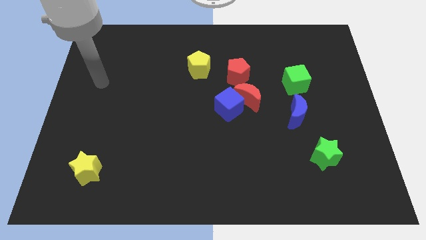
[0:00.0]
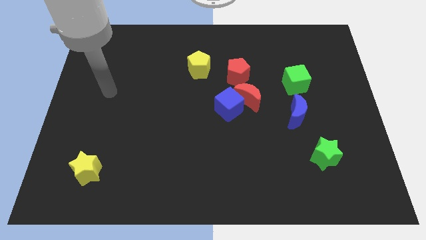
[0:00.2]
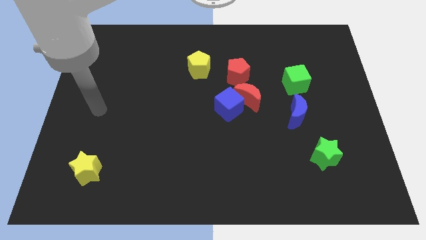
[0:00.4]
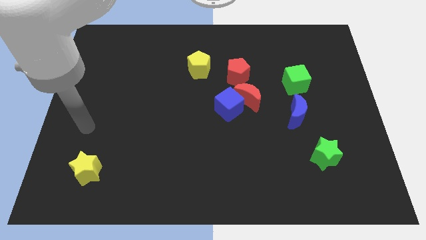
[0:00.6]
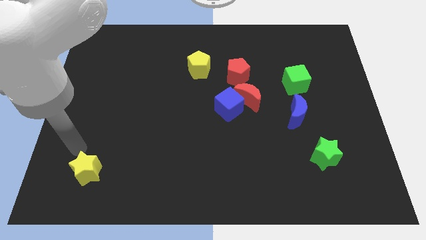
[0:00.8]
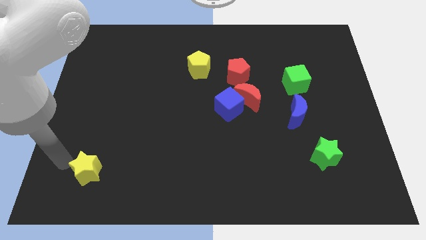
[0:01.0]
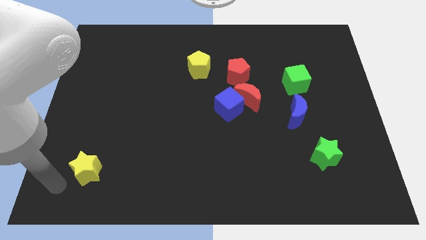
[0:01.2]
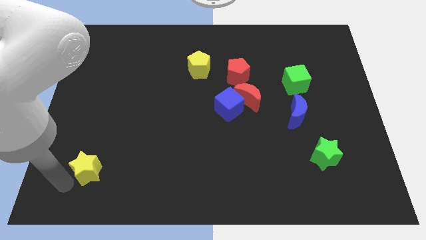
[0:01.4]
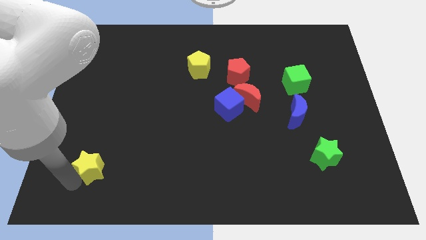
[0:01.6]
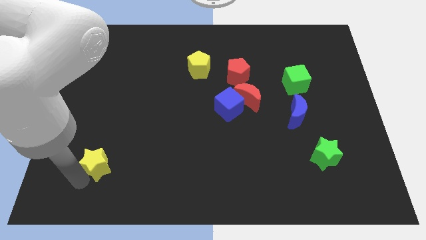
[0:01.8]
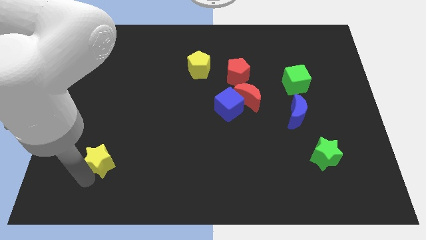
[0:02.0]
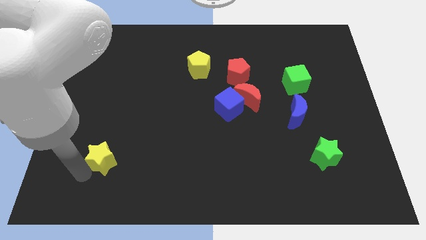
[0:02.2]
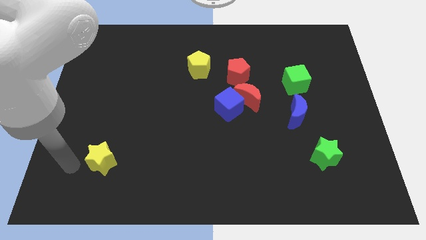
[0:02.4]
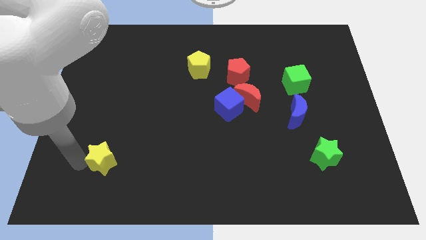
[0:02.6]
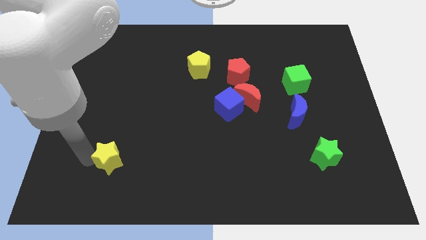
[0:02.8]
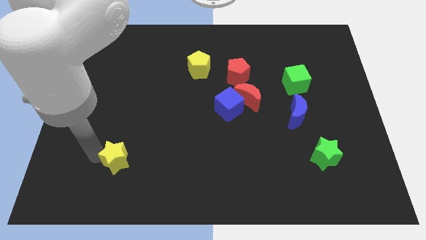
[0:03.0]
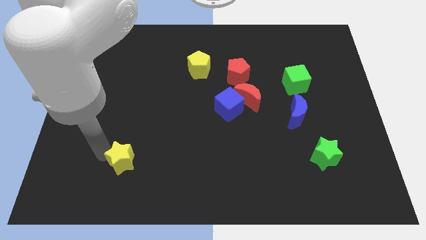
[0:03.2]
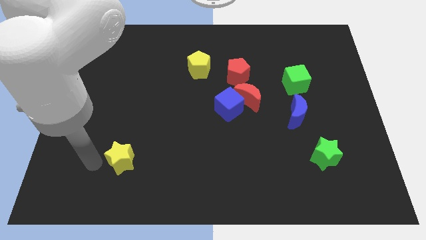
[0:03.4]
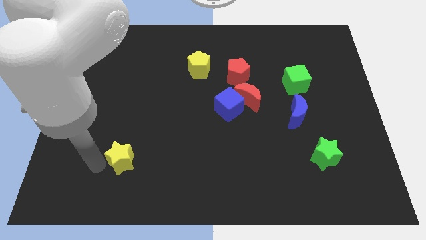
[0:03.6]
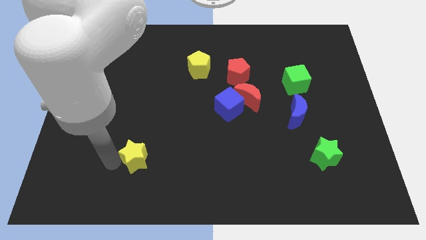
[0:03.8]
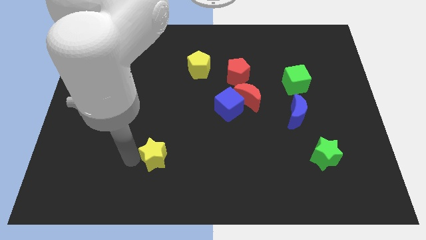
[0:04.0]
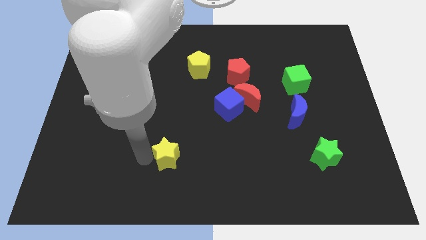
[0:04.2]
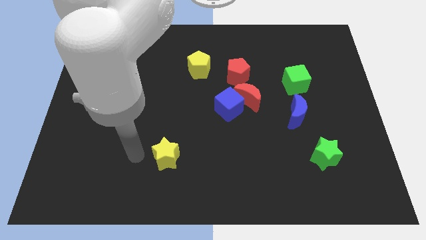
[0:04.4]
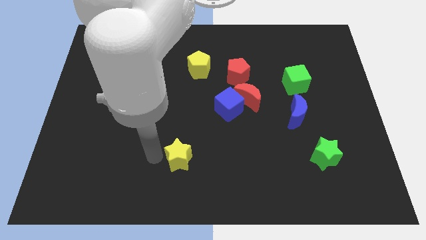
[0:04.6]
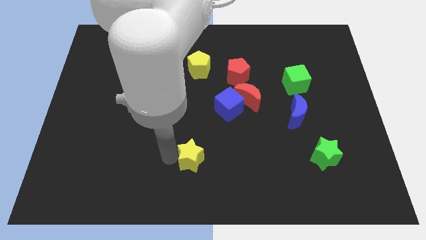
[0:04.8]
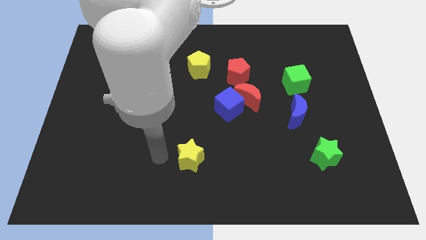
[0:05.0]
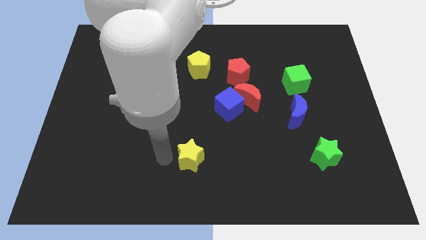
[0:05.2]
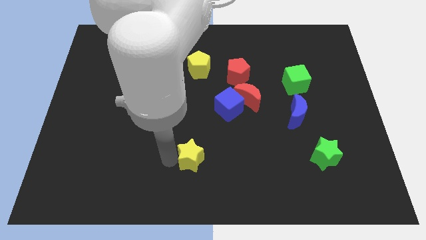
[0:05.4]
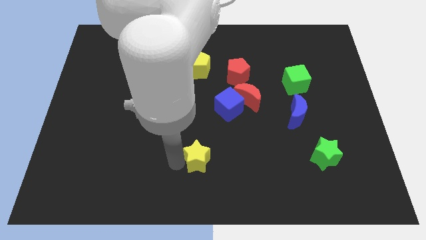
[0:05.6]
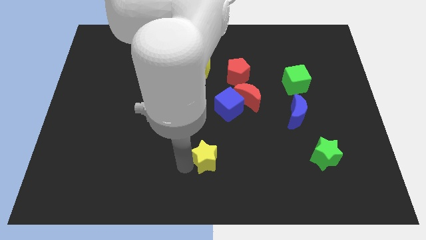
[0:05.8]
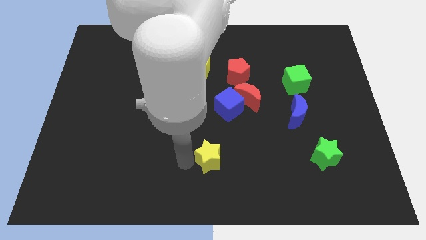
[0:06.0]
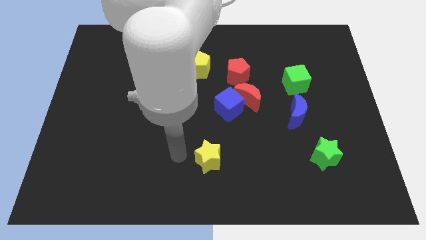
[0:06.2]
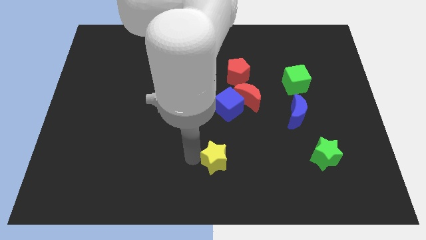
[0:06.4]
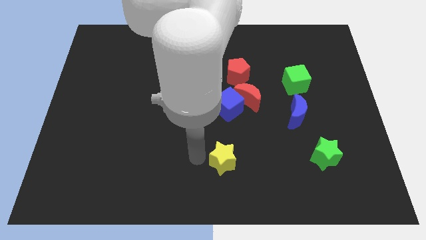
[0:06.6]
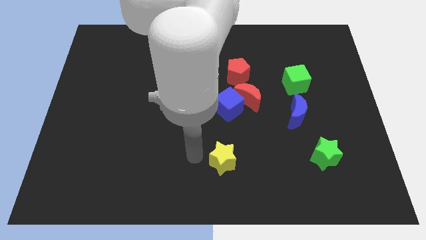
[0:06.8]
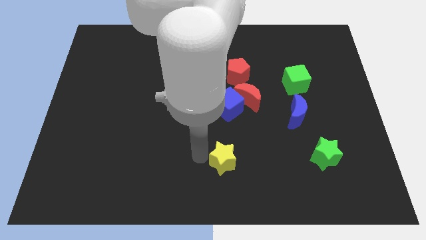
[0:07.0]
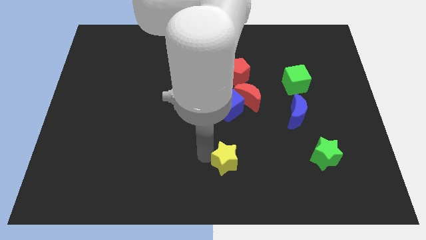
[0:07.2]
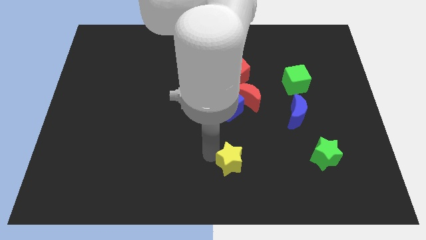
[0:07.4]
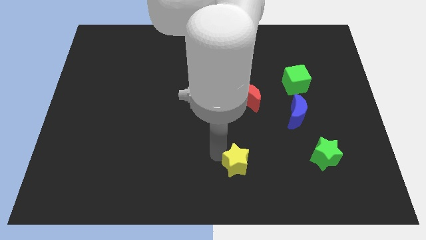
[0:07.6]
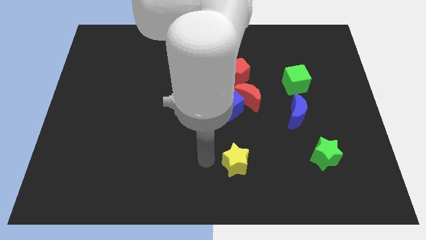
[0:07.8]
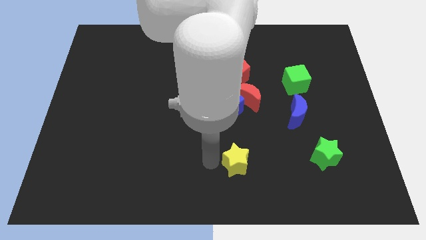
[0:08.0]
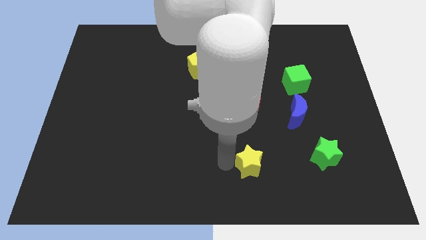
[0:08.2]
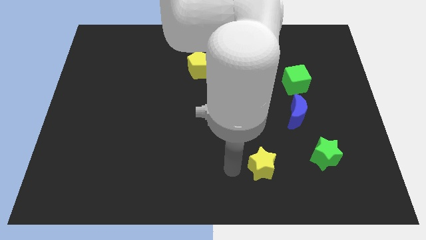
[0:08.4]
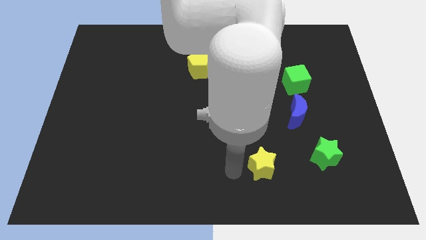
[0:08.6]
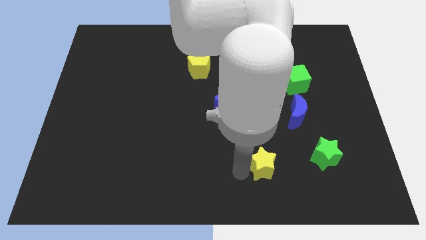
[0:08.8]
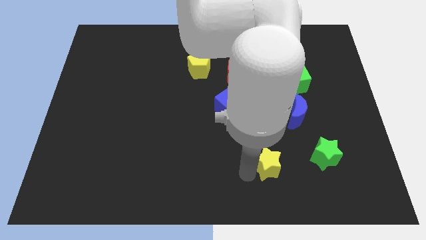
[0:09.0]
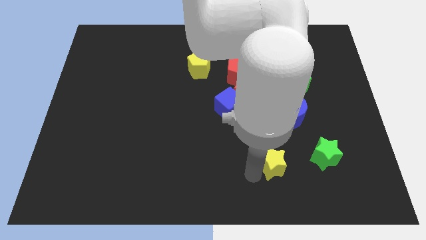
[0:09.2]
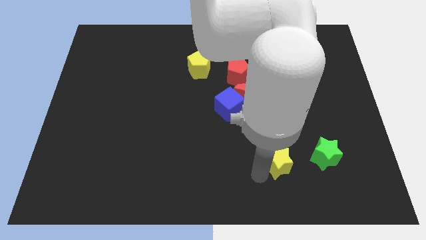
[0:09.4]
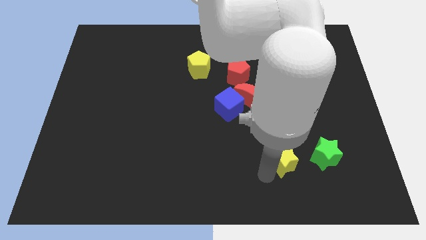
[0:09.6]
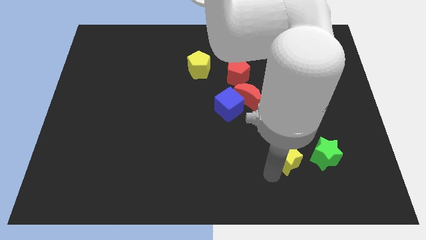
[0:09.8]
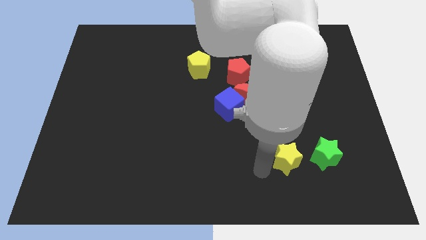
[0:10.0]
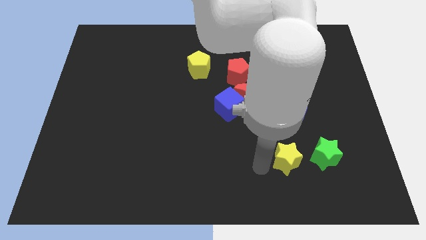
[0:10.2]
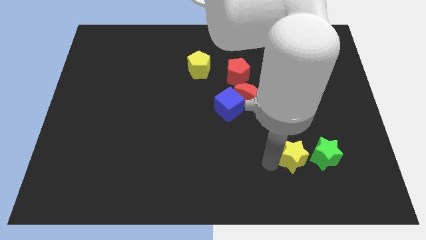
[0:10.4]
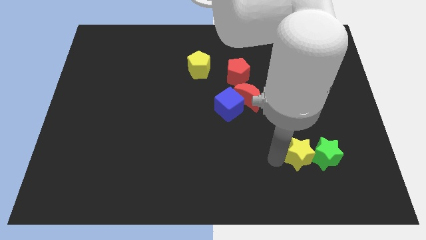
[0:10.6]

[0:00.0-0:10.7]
move the yellow star towards the green star

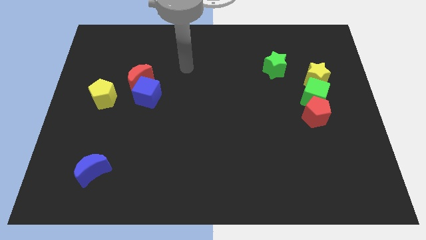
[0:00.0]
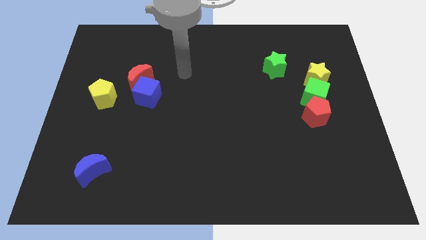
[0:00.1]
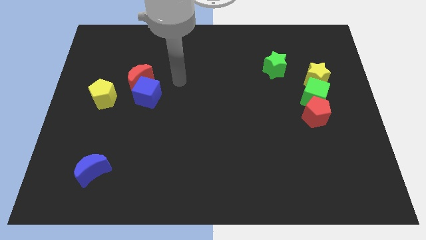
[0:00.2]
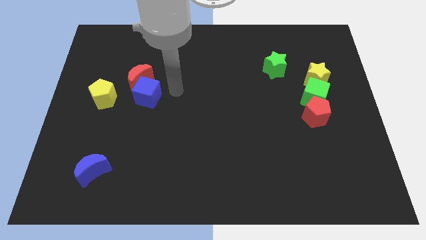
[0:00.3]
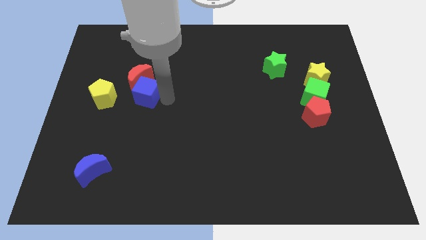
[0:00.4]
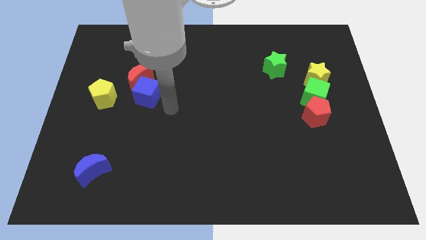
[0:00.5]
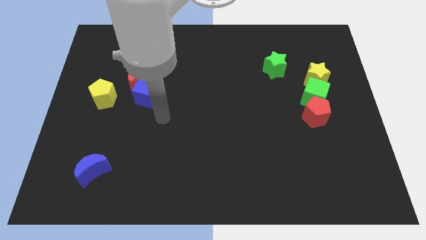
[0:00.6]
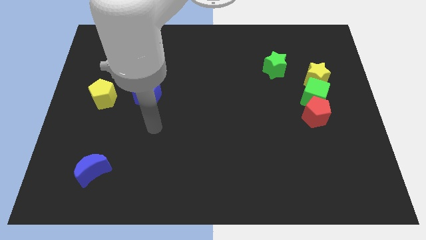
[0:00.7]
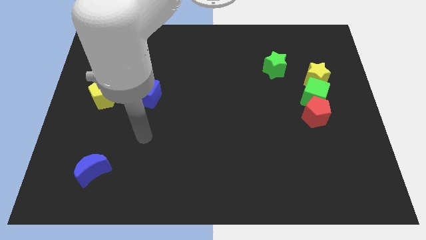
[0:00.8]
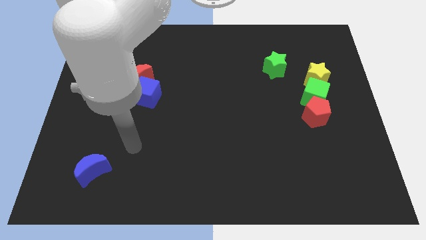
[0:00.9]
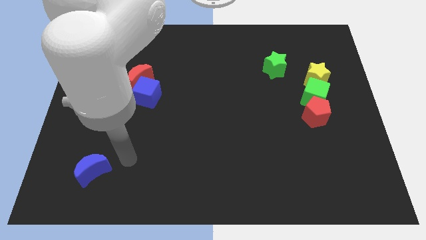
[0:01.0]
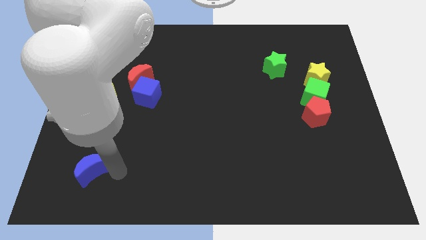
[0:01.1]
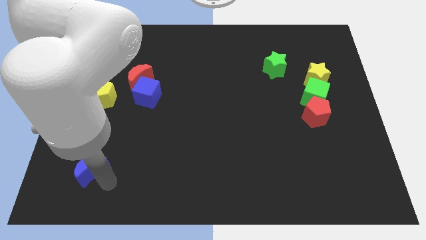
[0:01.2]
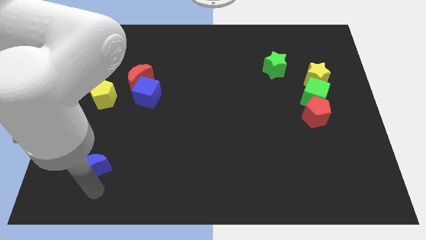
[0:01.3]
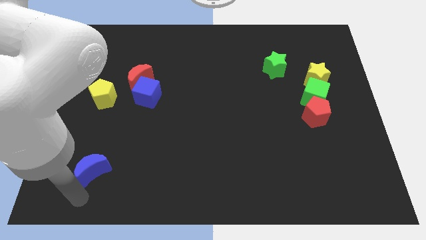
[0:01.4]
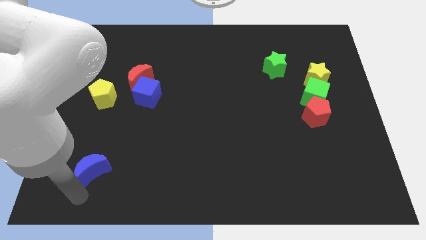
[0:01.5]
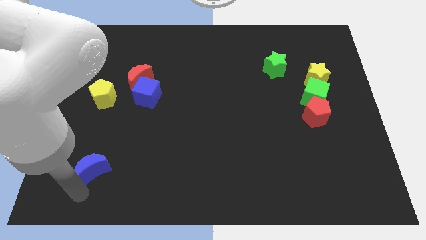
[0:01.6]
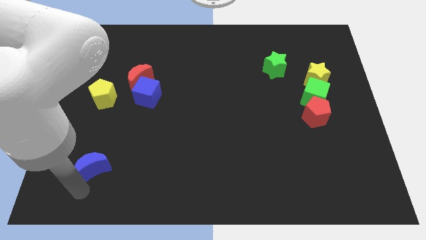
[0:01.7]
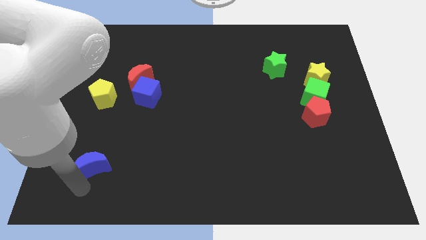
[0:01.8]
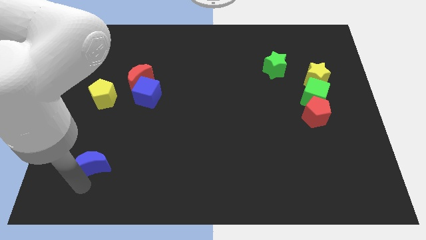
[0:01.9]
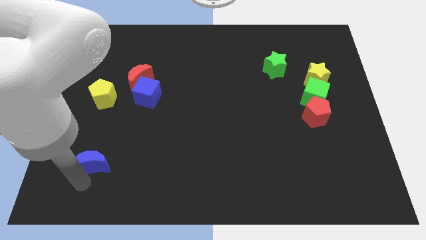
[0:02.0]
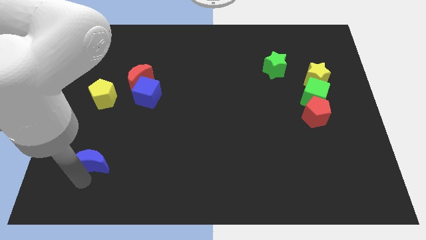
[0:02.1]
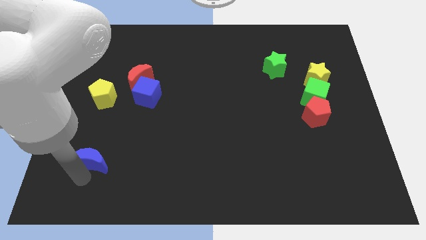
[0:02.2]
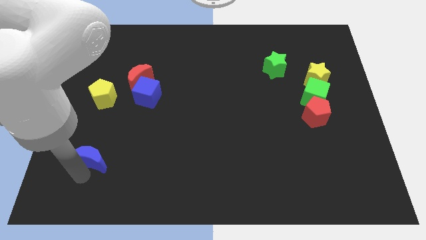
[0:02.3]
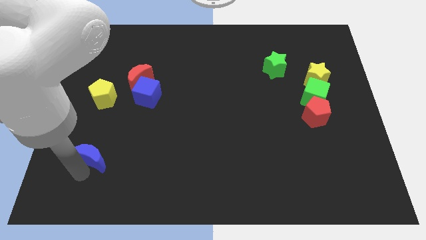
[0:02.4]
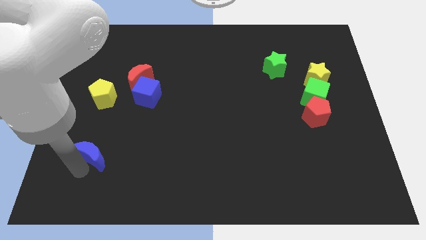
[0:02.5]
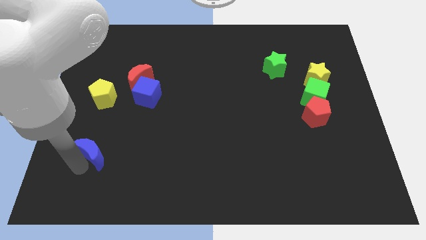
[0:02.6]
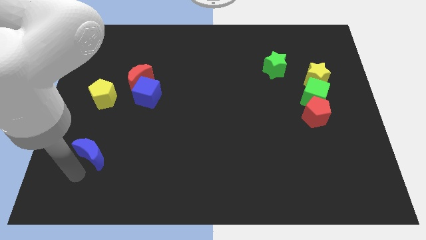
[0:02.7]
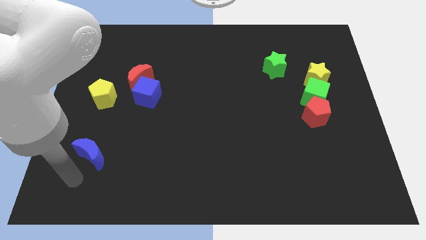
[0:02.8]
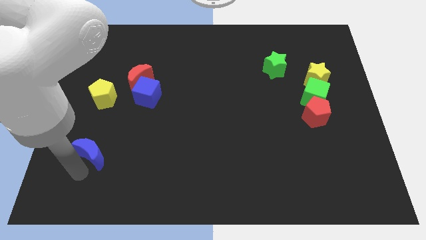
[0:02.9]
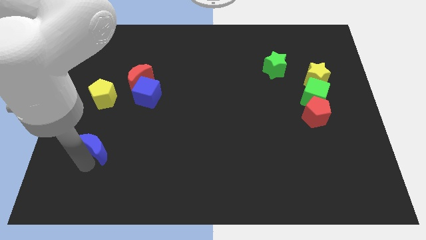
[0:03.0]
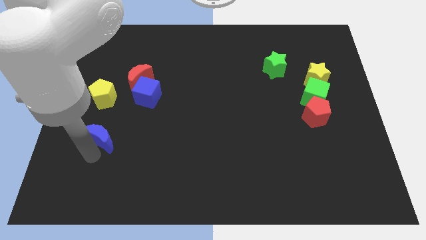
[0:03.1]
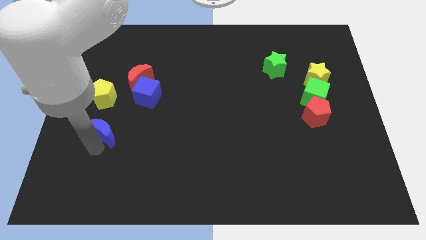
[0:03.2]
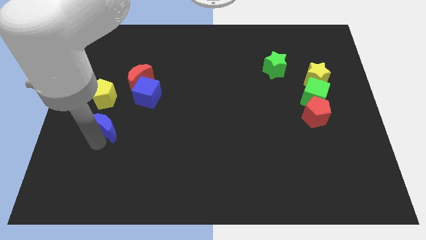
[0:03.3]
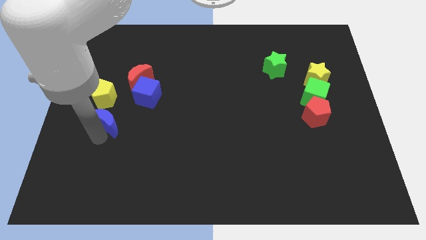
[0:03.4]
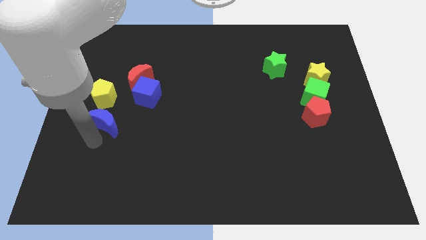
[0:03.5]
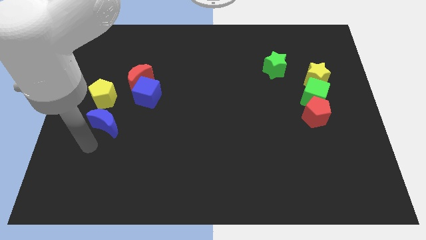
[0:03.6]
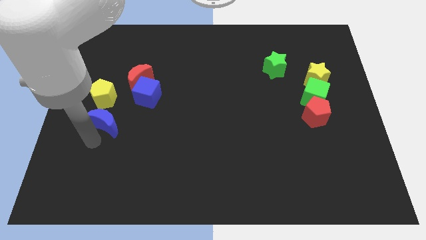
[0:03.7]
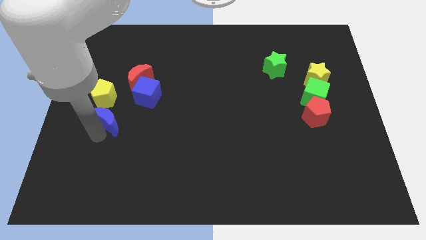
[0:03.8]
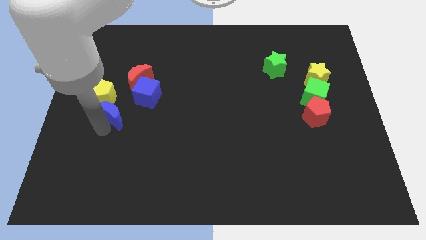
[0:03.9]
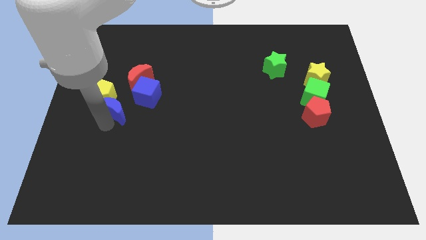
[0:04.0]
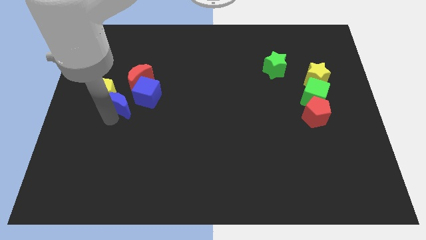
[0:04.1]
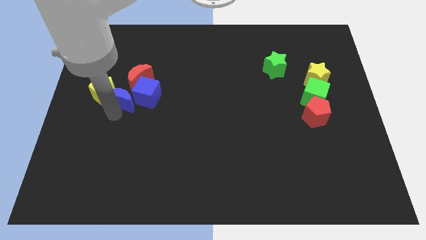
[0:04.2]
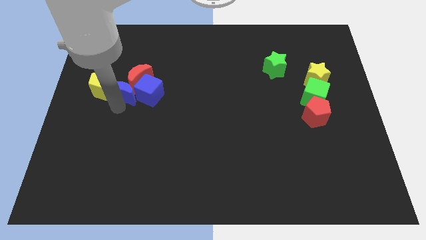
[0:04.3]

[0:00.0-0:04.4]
slide the blue moon next to the red moon
